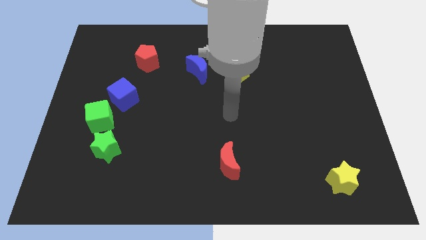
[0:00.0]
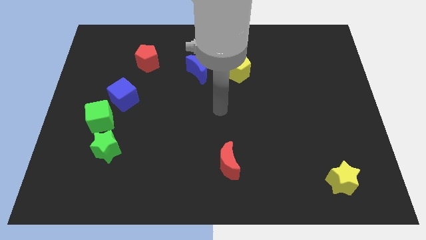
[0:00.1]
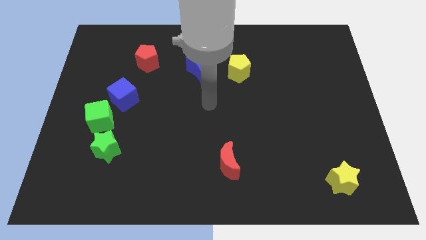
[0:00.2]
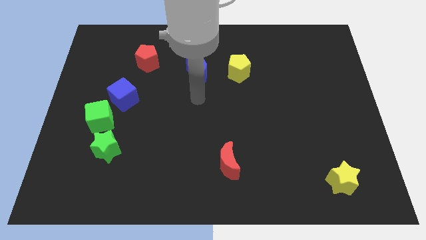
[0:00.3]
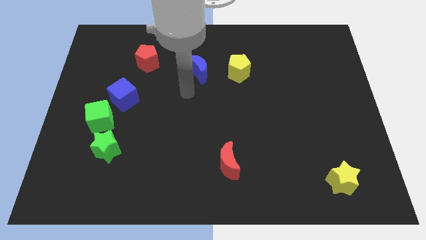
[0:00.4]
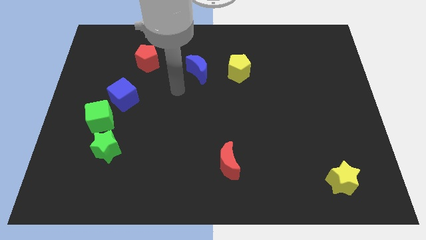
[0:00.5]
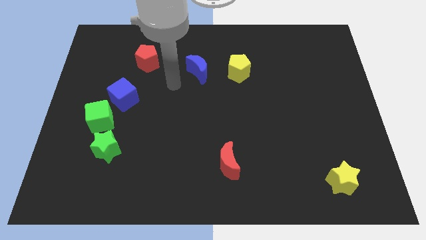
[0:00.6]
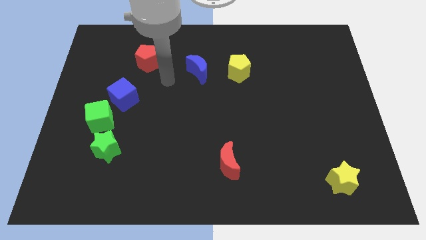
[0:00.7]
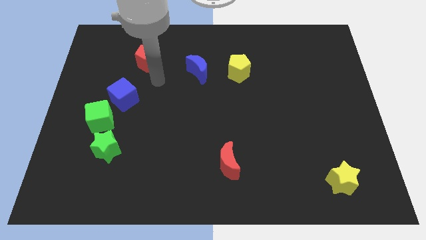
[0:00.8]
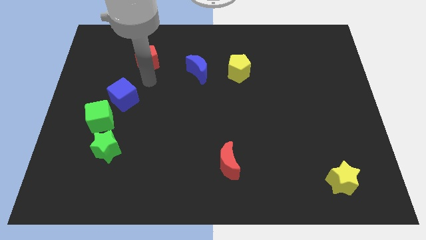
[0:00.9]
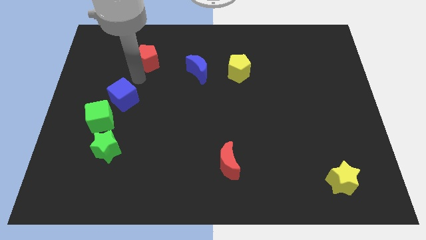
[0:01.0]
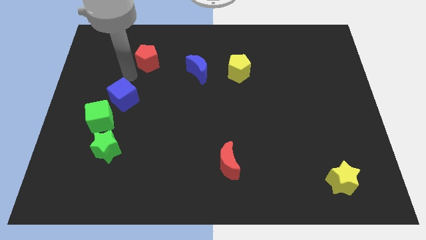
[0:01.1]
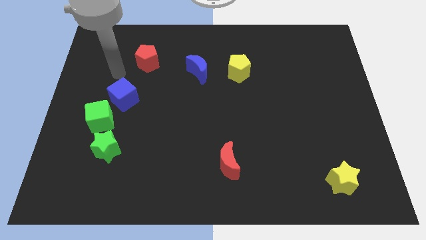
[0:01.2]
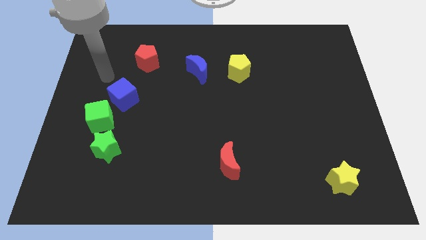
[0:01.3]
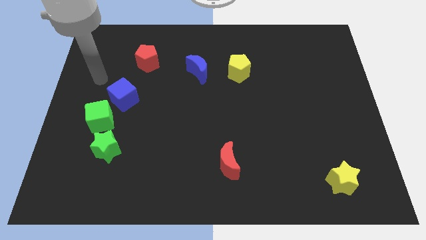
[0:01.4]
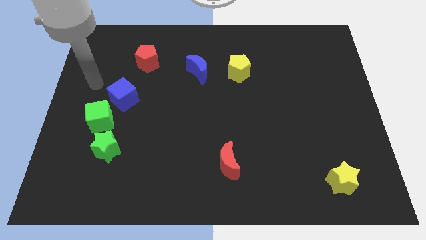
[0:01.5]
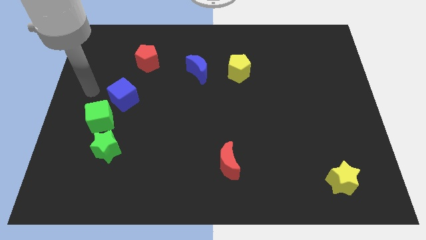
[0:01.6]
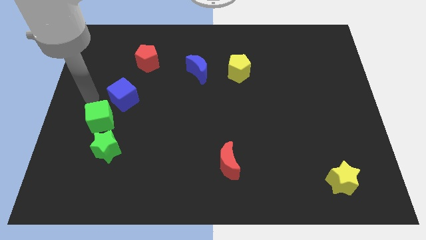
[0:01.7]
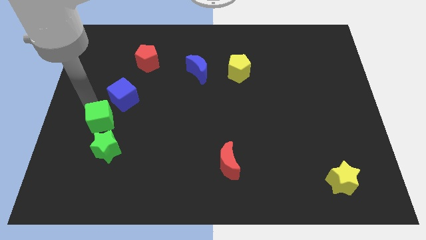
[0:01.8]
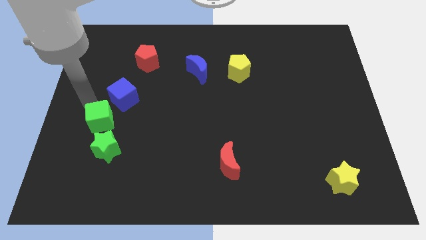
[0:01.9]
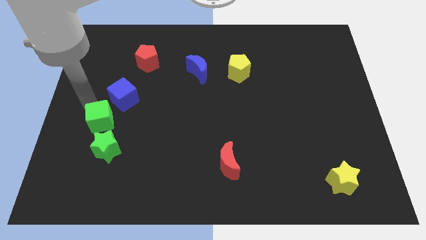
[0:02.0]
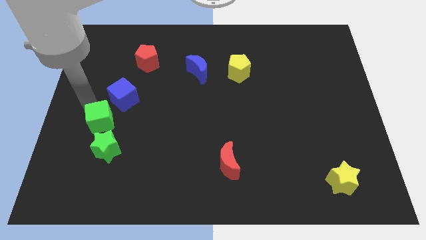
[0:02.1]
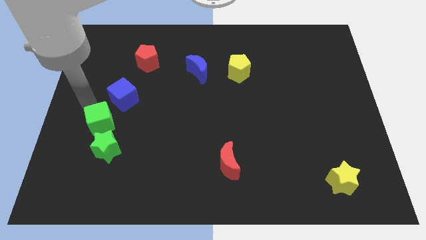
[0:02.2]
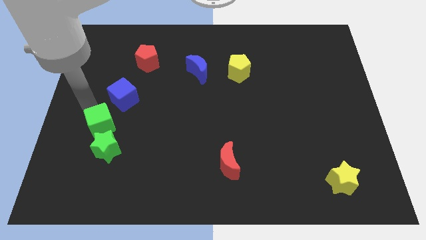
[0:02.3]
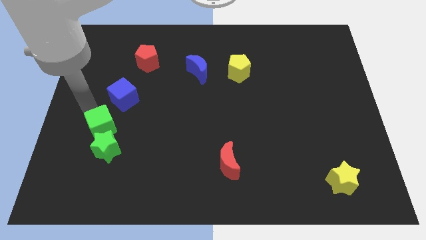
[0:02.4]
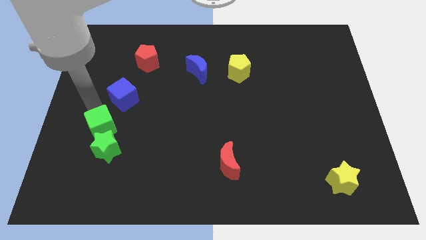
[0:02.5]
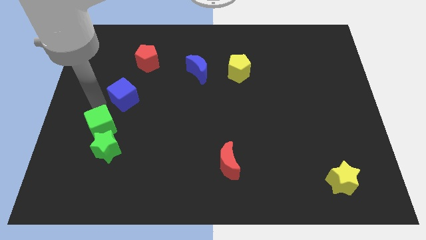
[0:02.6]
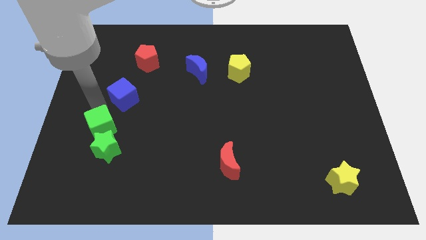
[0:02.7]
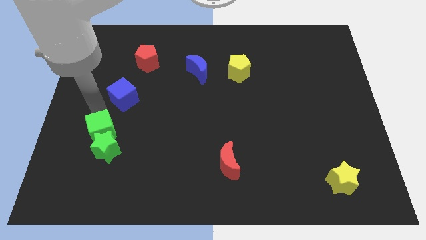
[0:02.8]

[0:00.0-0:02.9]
put the green cube to the green star

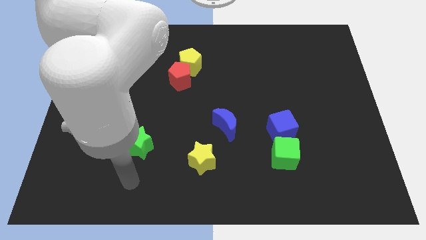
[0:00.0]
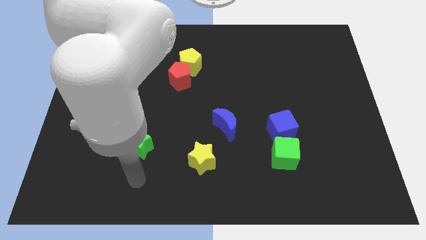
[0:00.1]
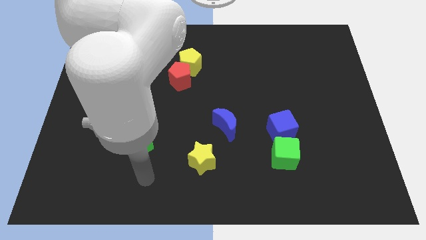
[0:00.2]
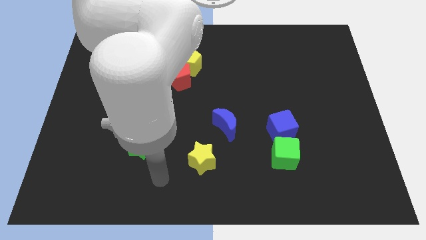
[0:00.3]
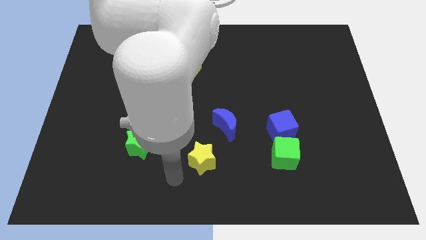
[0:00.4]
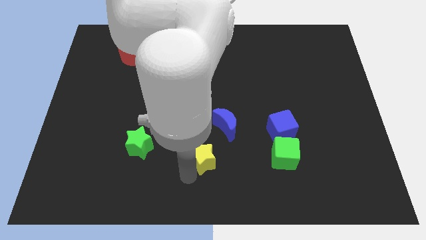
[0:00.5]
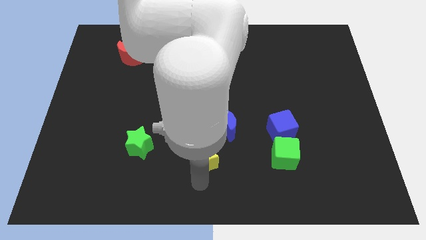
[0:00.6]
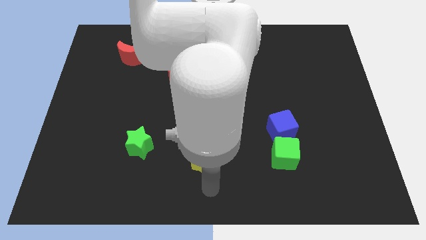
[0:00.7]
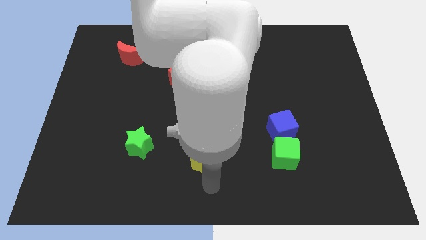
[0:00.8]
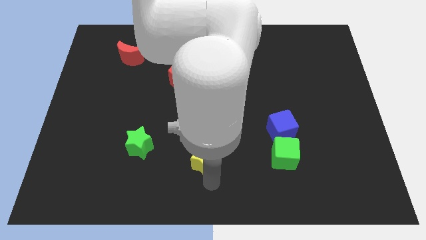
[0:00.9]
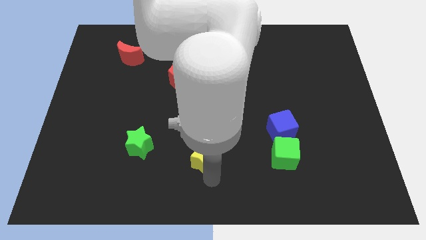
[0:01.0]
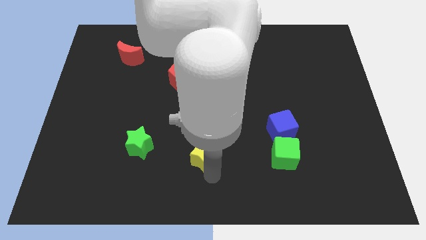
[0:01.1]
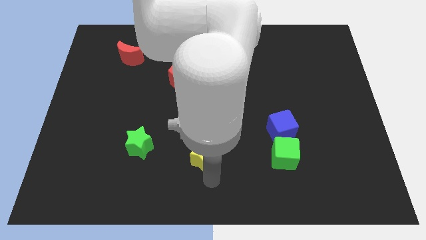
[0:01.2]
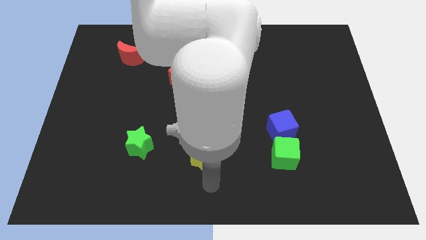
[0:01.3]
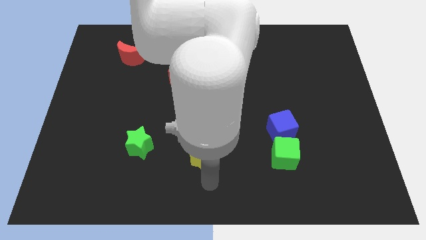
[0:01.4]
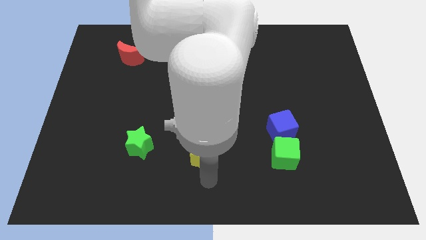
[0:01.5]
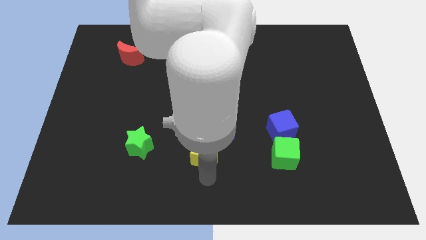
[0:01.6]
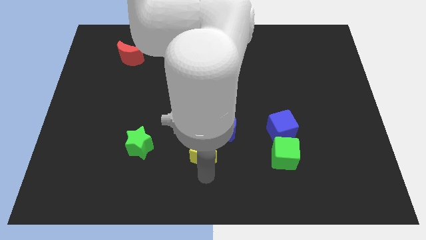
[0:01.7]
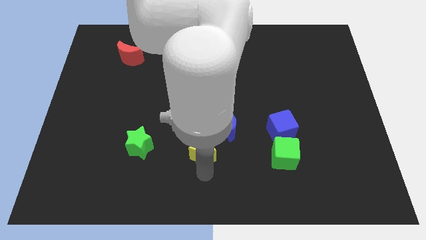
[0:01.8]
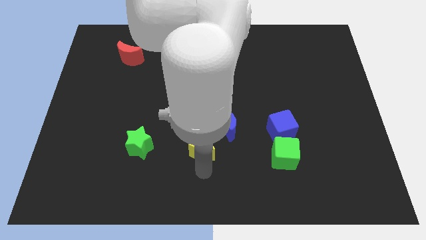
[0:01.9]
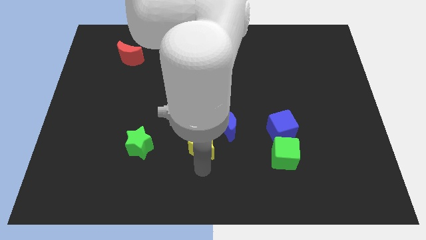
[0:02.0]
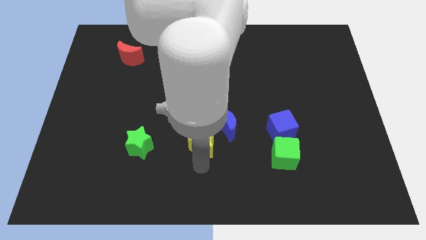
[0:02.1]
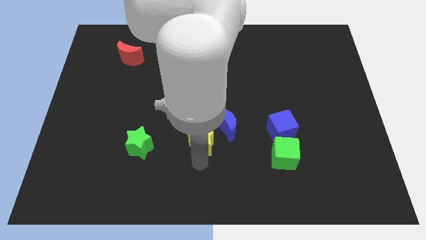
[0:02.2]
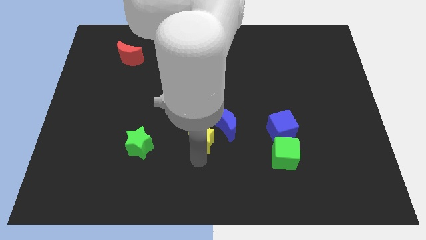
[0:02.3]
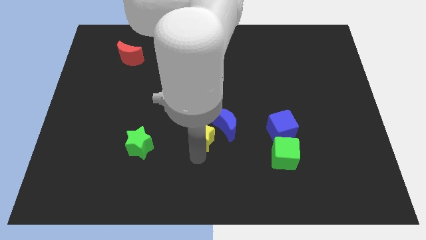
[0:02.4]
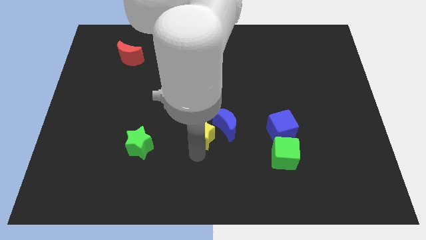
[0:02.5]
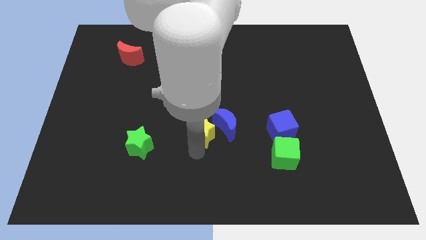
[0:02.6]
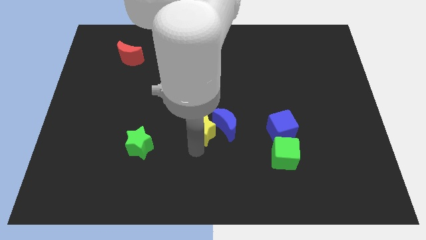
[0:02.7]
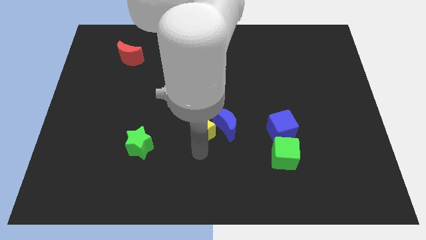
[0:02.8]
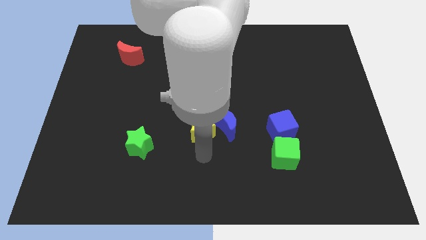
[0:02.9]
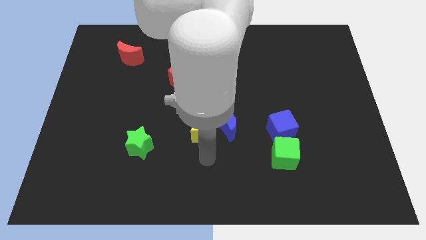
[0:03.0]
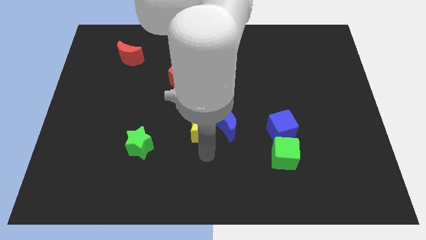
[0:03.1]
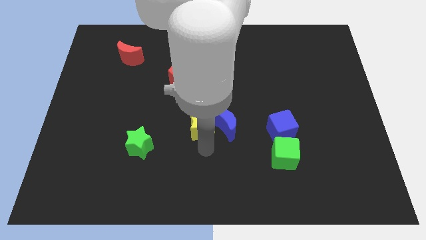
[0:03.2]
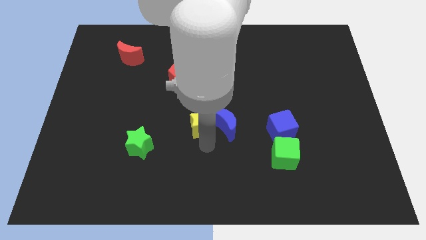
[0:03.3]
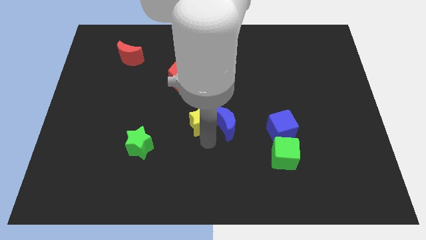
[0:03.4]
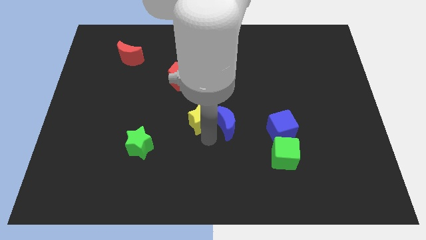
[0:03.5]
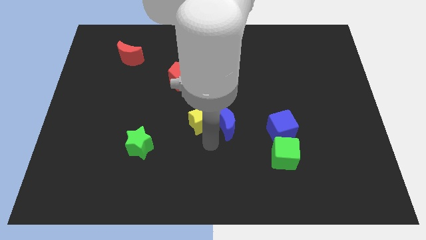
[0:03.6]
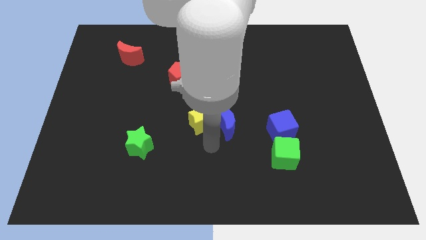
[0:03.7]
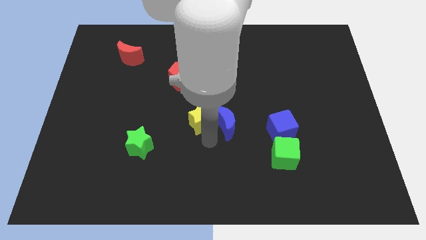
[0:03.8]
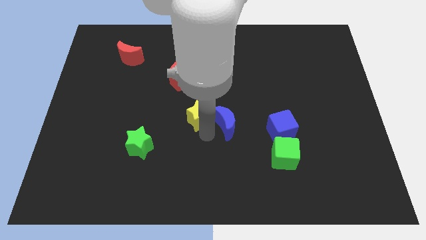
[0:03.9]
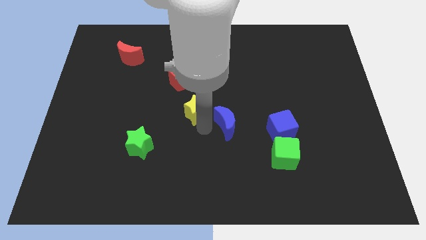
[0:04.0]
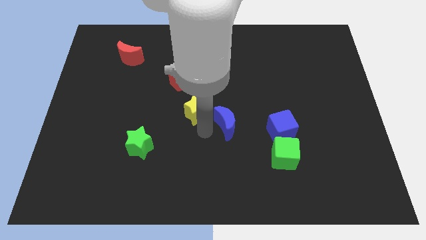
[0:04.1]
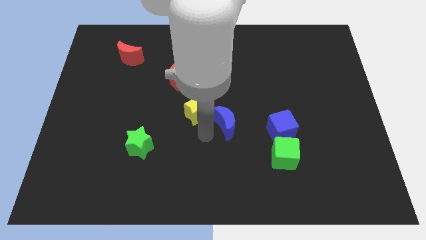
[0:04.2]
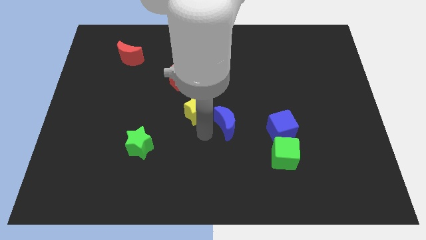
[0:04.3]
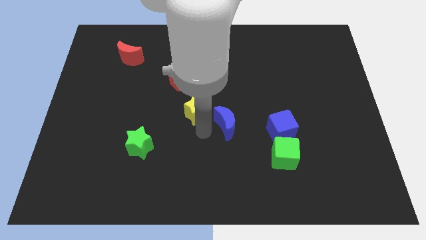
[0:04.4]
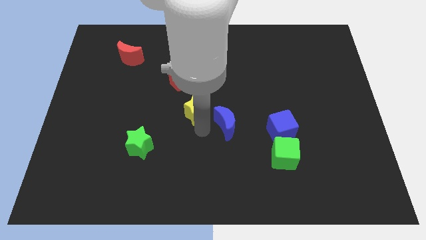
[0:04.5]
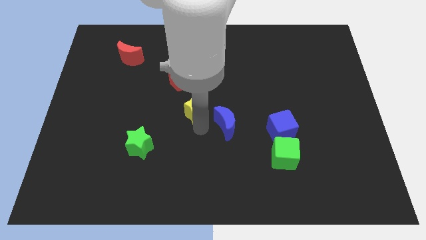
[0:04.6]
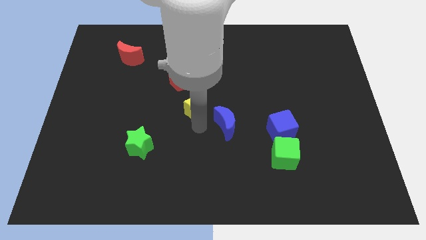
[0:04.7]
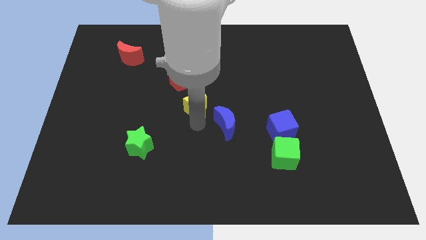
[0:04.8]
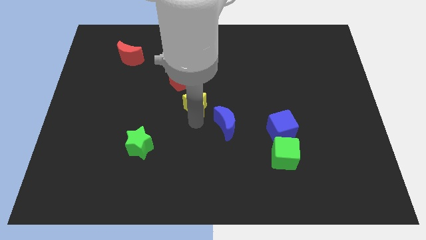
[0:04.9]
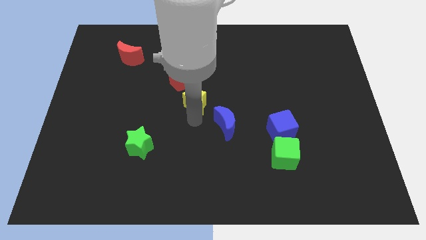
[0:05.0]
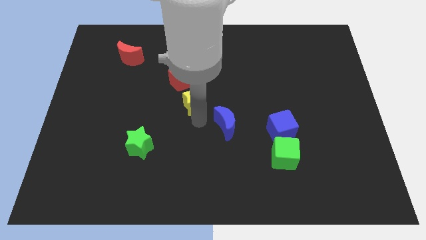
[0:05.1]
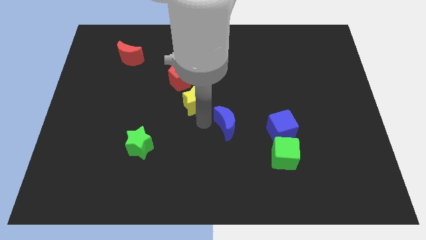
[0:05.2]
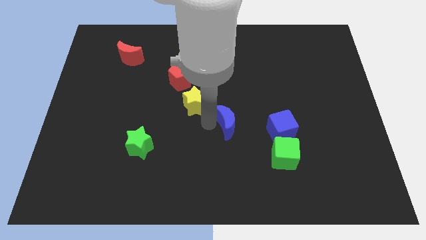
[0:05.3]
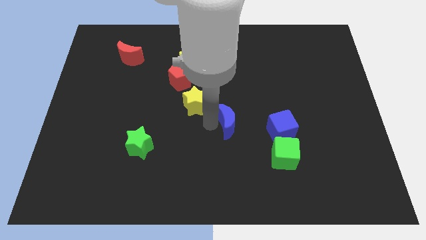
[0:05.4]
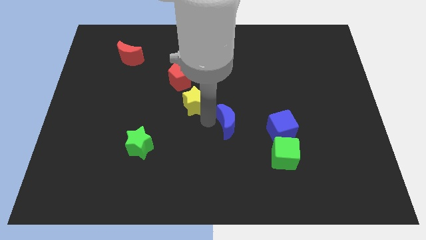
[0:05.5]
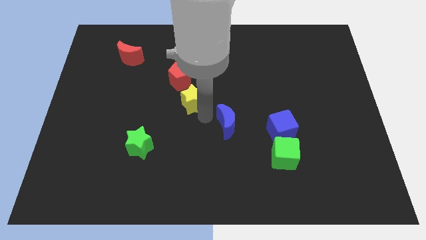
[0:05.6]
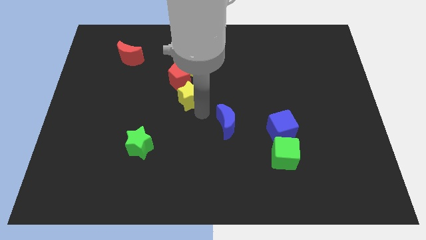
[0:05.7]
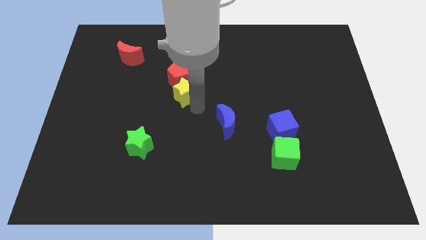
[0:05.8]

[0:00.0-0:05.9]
move the yellow star to the red pentagon
